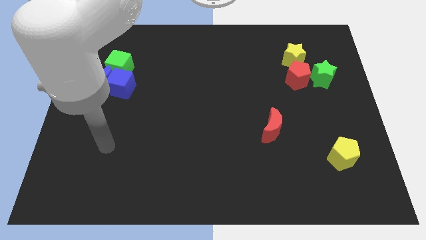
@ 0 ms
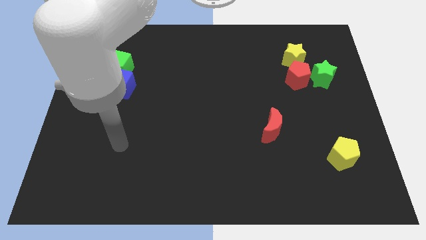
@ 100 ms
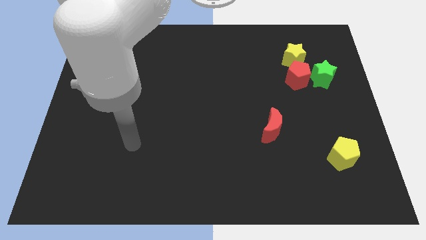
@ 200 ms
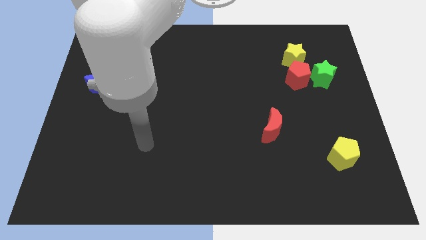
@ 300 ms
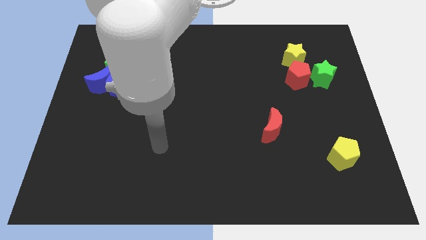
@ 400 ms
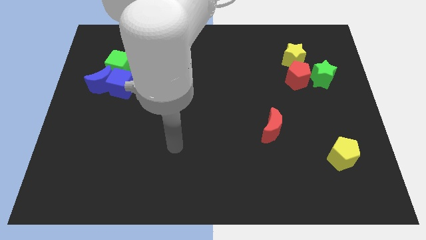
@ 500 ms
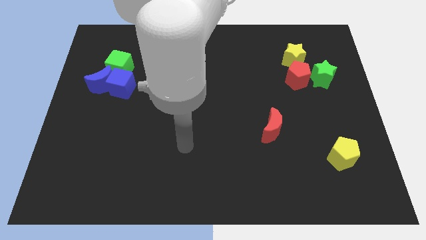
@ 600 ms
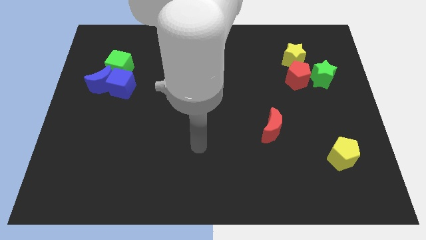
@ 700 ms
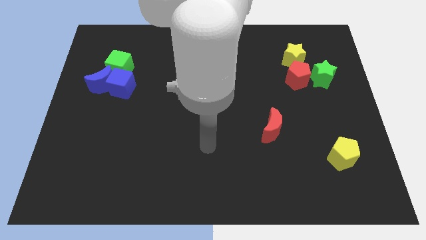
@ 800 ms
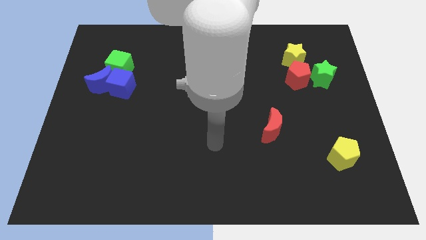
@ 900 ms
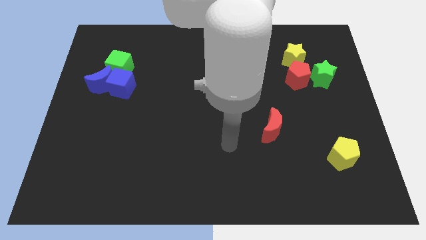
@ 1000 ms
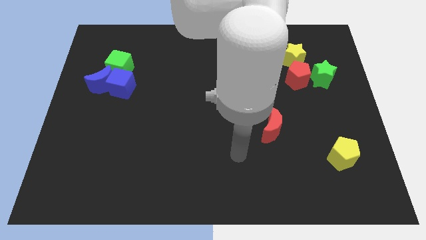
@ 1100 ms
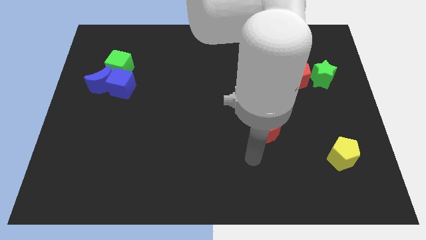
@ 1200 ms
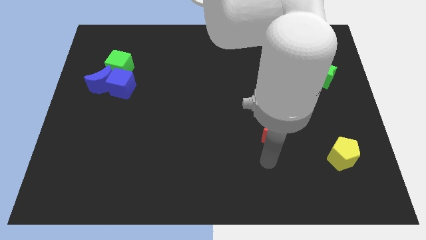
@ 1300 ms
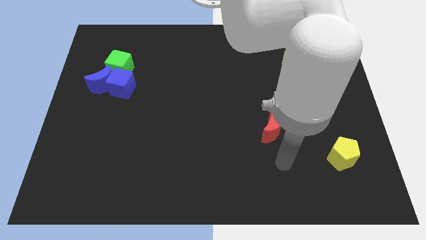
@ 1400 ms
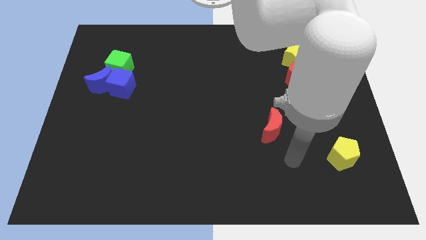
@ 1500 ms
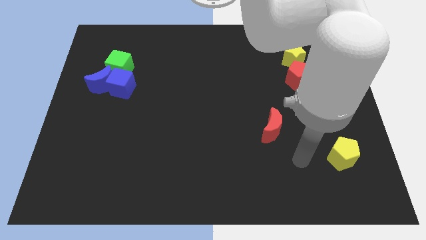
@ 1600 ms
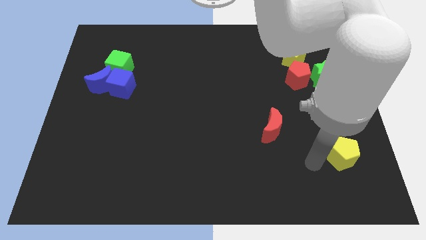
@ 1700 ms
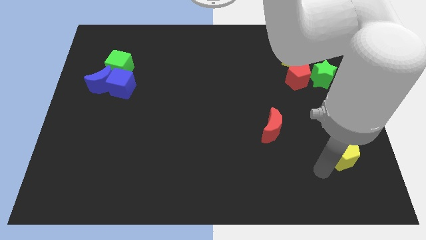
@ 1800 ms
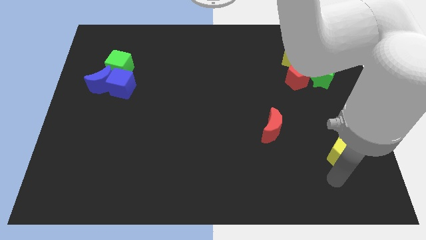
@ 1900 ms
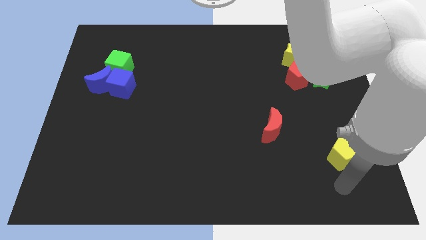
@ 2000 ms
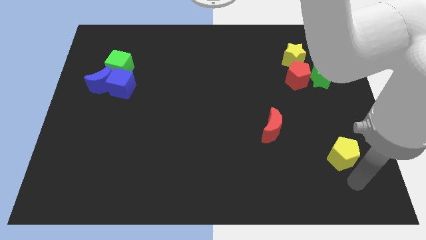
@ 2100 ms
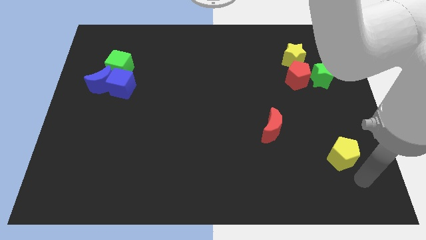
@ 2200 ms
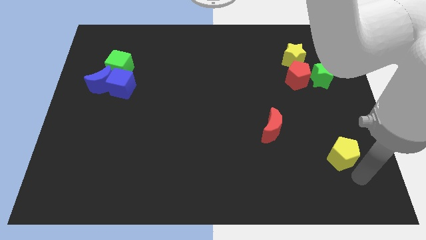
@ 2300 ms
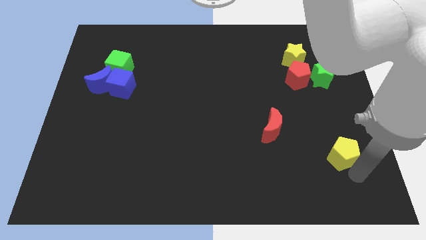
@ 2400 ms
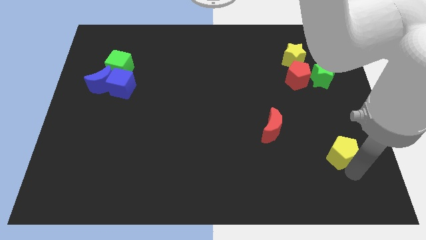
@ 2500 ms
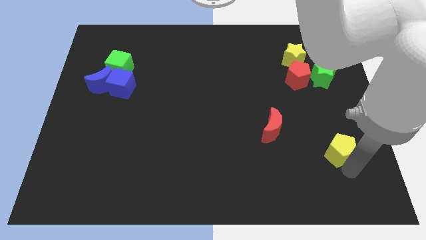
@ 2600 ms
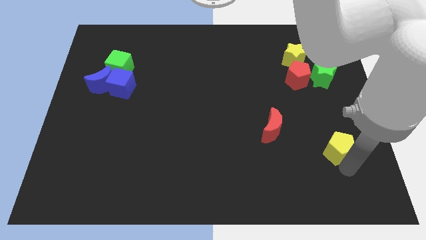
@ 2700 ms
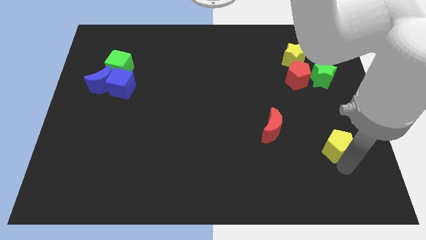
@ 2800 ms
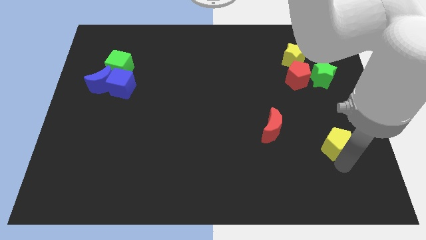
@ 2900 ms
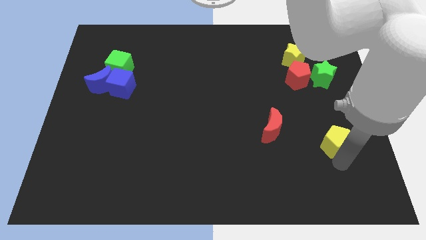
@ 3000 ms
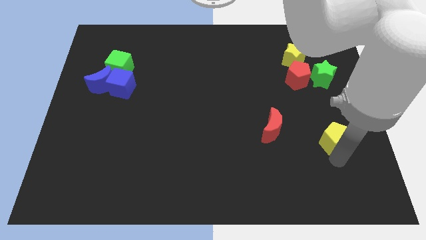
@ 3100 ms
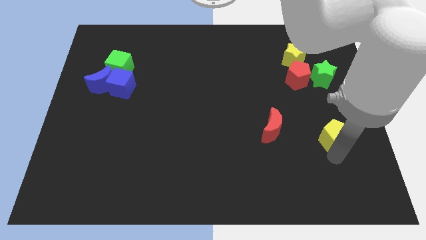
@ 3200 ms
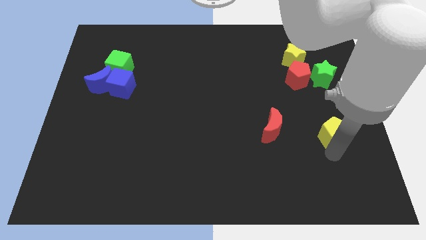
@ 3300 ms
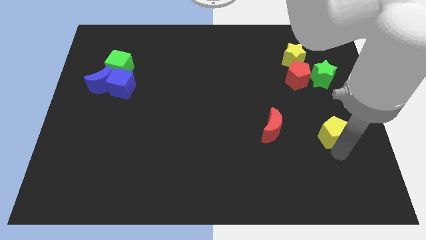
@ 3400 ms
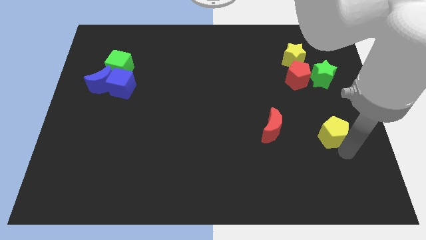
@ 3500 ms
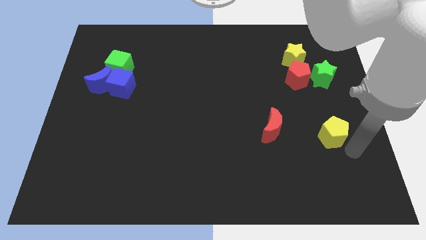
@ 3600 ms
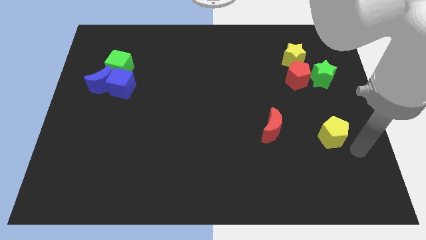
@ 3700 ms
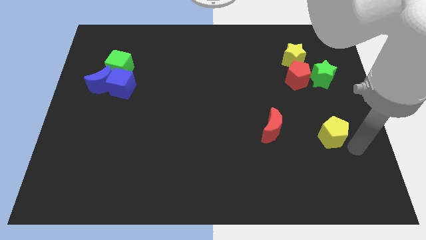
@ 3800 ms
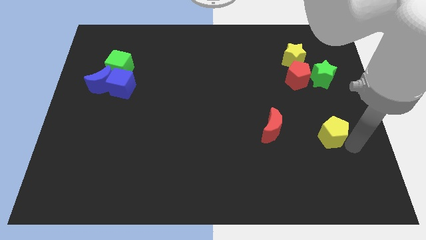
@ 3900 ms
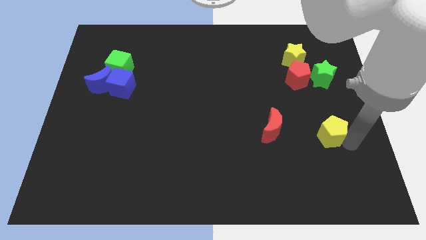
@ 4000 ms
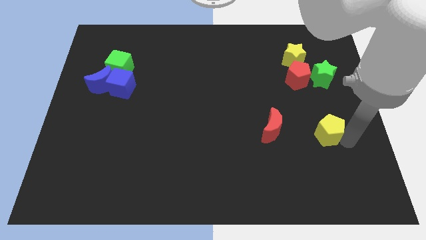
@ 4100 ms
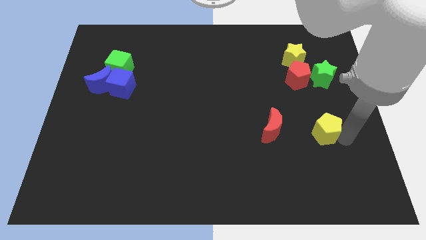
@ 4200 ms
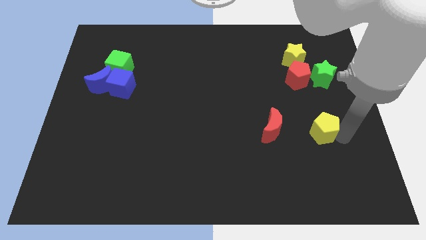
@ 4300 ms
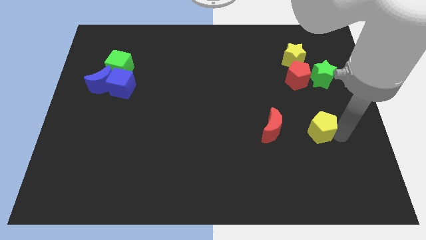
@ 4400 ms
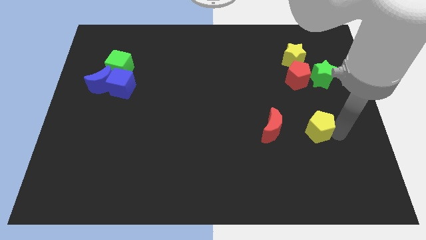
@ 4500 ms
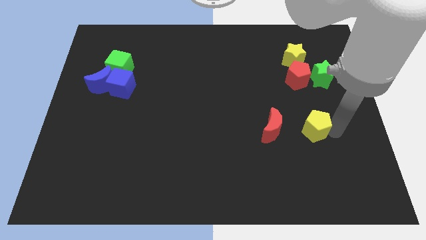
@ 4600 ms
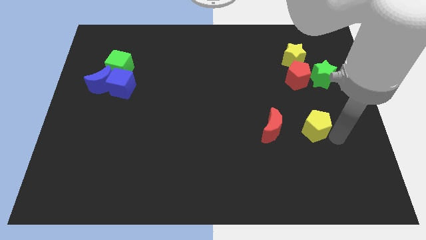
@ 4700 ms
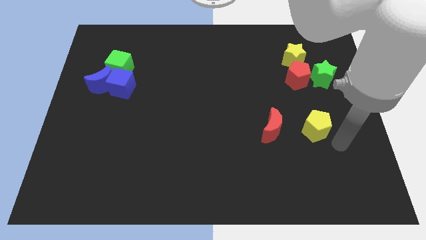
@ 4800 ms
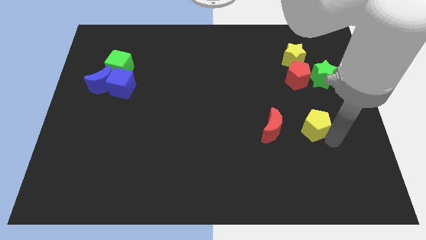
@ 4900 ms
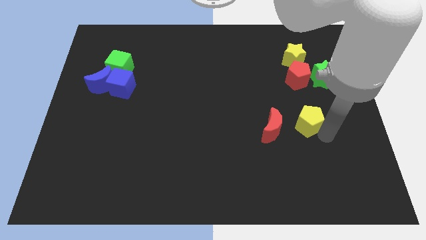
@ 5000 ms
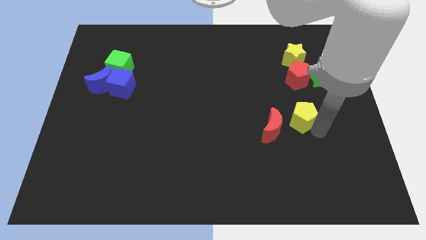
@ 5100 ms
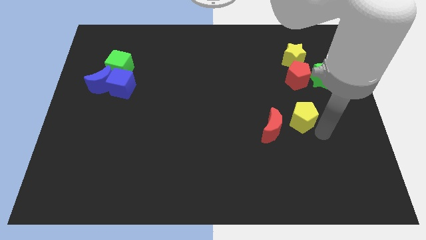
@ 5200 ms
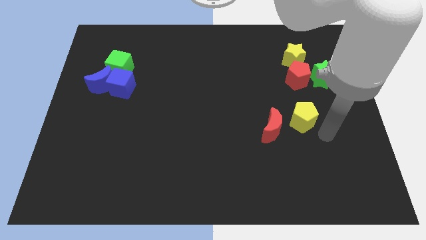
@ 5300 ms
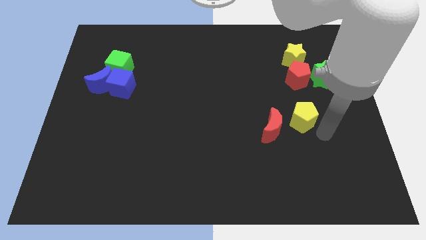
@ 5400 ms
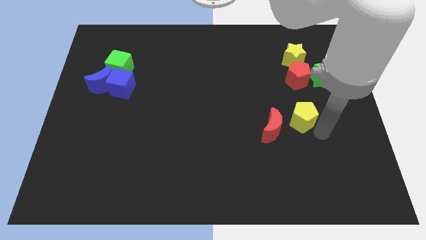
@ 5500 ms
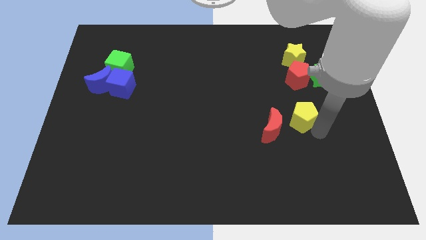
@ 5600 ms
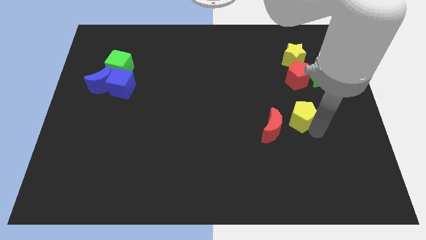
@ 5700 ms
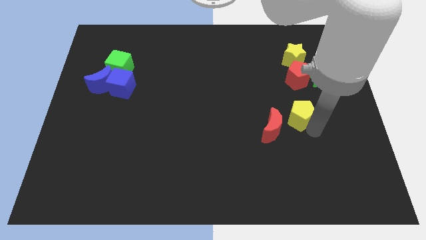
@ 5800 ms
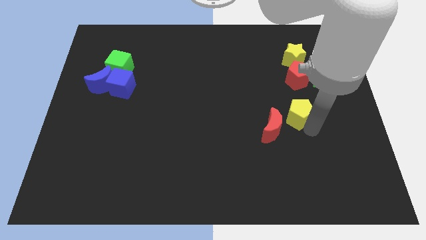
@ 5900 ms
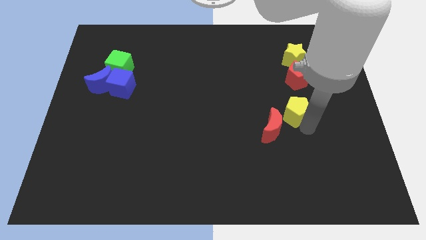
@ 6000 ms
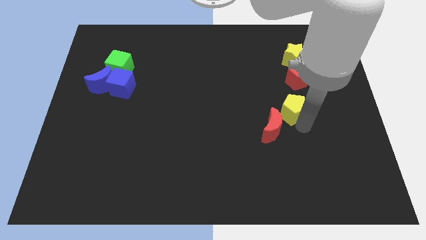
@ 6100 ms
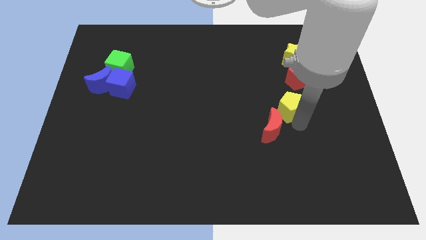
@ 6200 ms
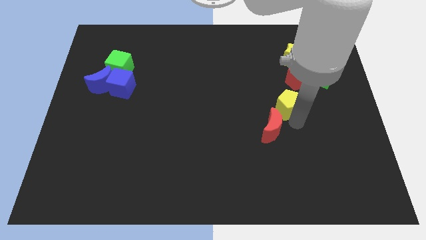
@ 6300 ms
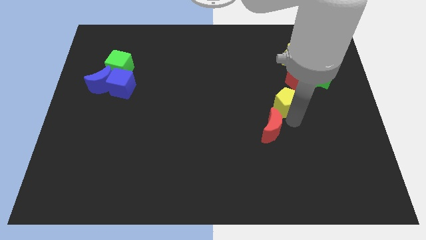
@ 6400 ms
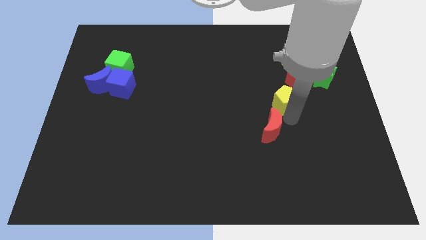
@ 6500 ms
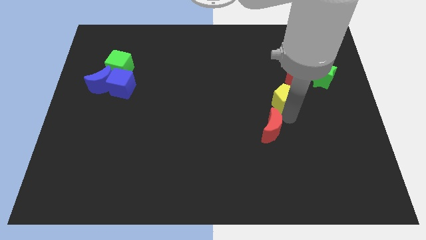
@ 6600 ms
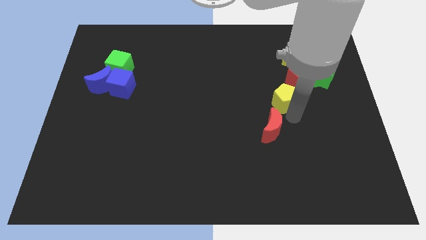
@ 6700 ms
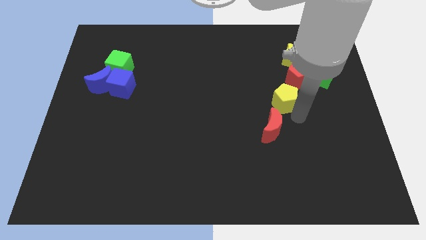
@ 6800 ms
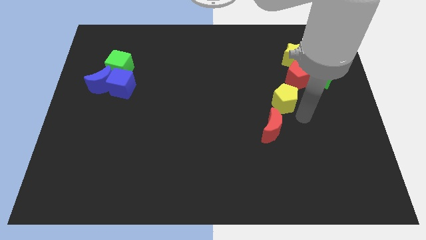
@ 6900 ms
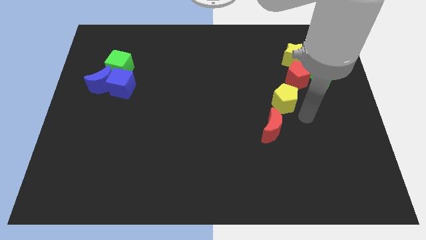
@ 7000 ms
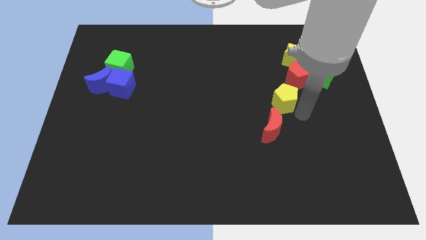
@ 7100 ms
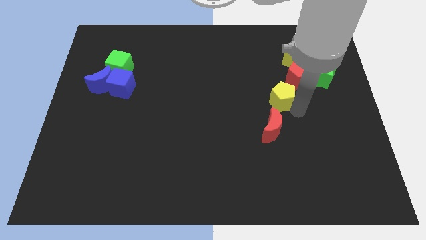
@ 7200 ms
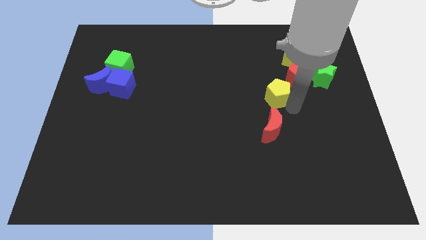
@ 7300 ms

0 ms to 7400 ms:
push the yellow pentagon upwards and to the left
